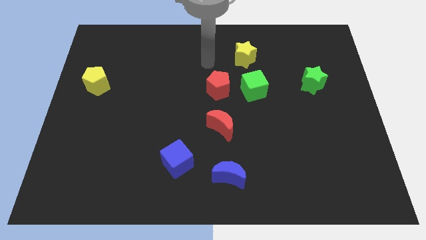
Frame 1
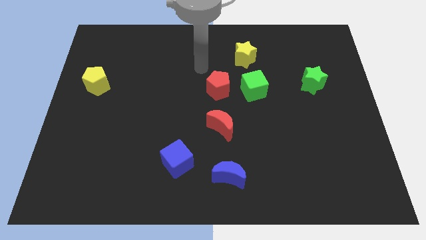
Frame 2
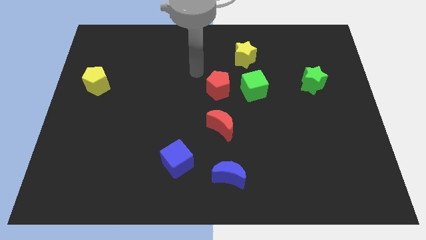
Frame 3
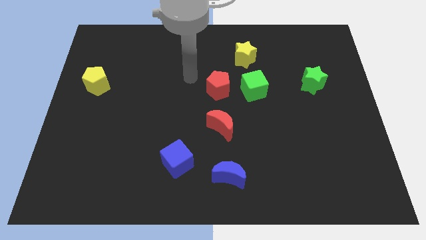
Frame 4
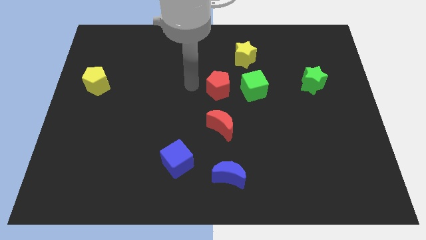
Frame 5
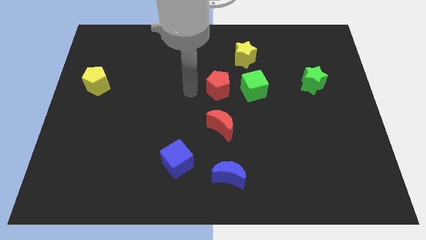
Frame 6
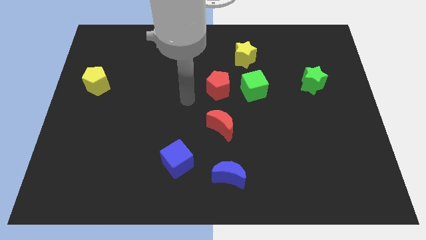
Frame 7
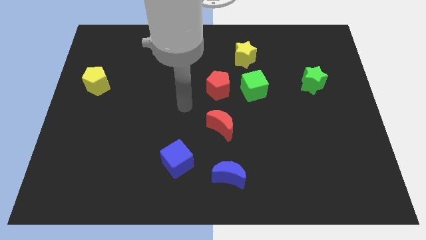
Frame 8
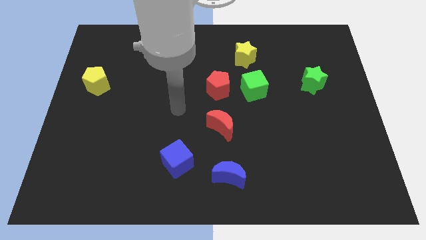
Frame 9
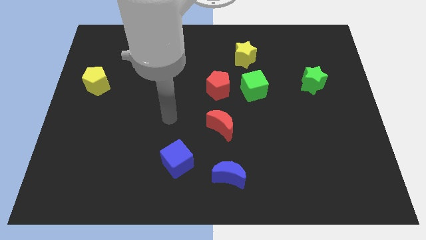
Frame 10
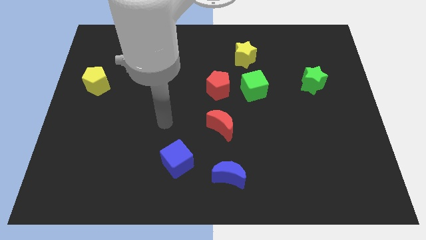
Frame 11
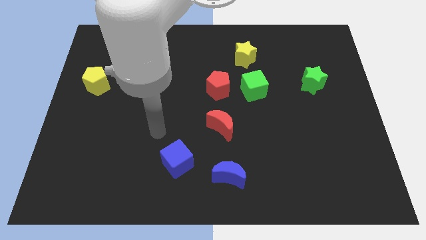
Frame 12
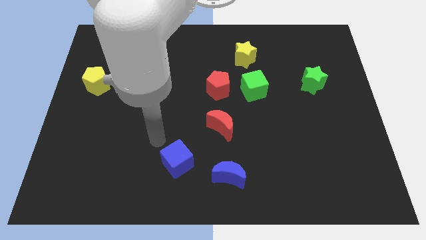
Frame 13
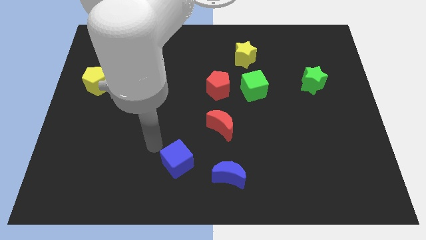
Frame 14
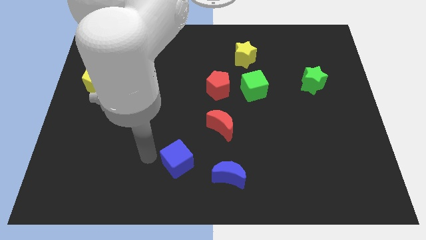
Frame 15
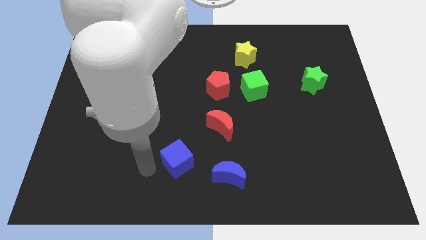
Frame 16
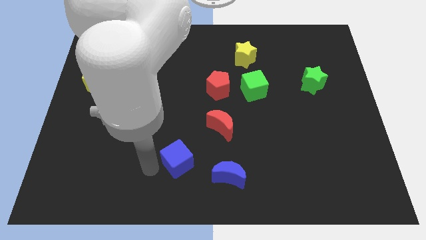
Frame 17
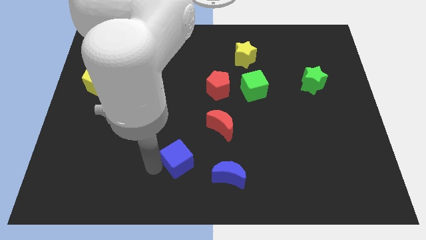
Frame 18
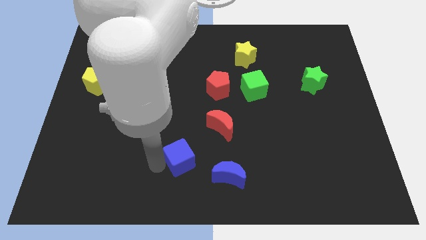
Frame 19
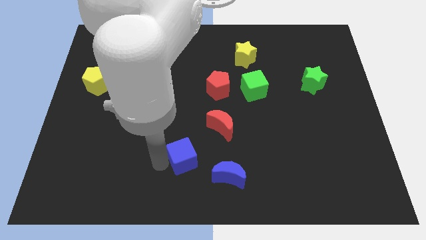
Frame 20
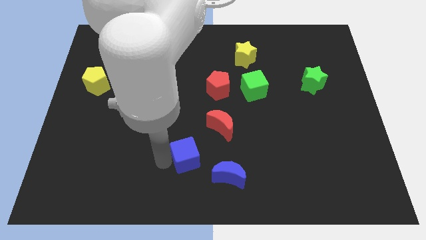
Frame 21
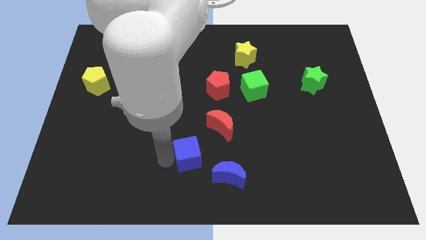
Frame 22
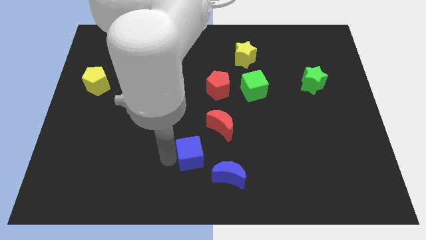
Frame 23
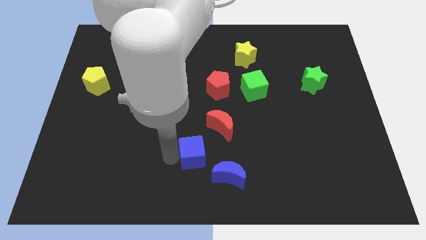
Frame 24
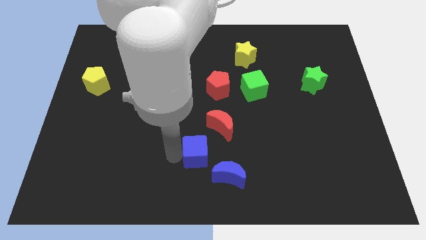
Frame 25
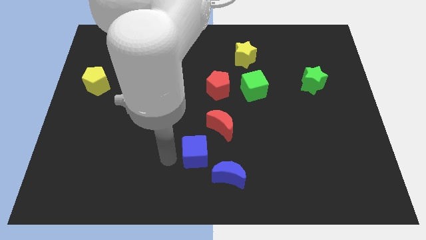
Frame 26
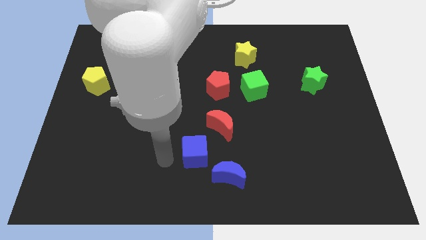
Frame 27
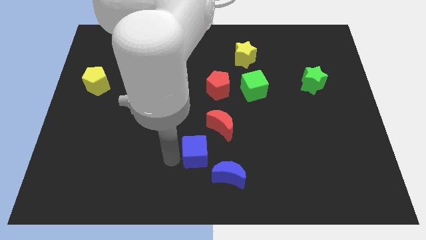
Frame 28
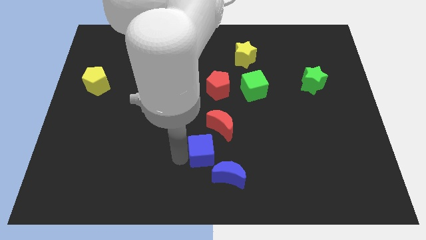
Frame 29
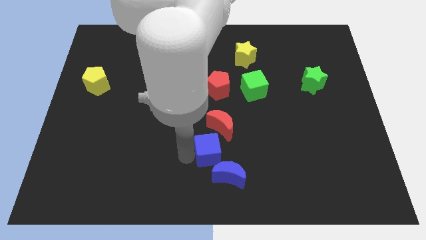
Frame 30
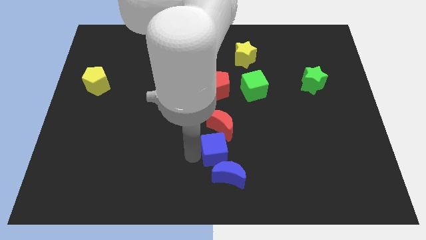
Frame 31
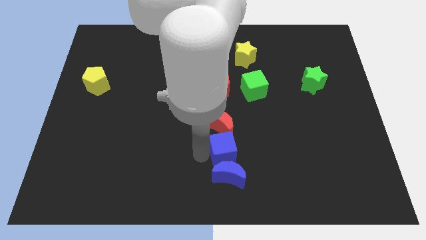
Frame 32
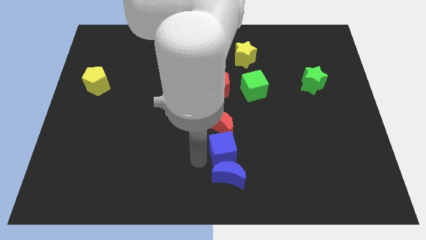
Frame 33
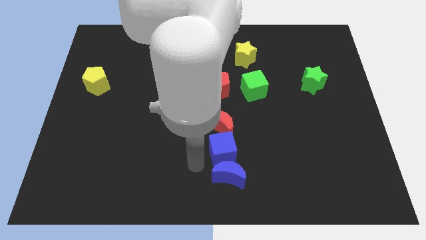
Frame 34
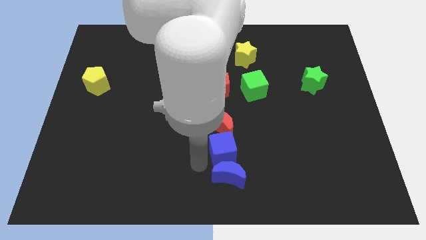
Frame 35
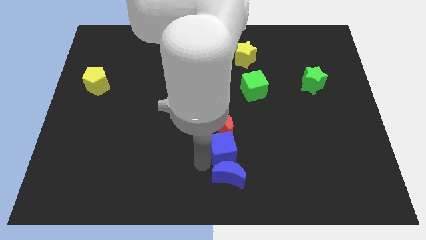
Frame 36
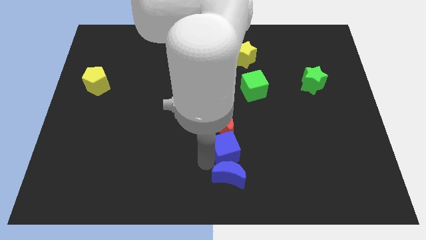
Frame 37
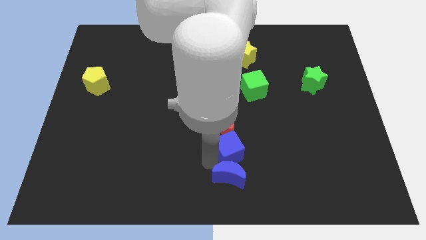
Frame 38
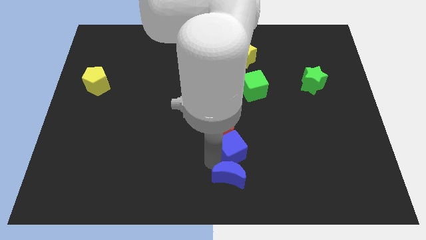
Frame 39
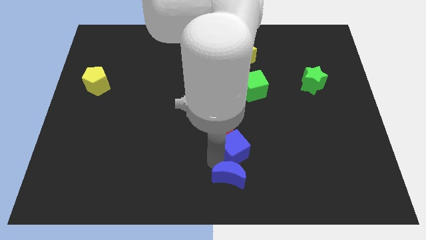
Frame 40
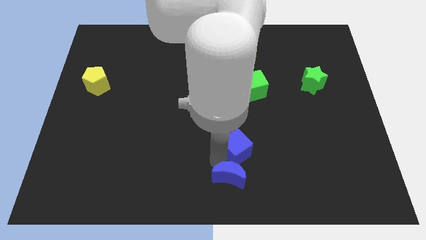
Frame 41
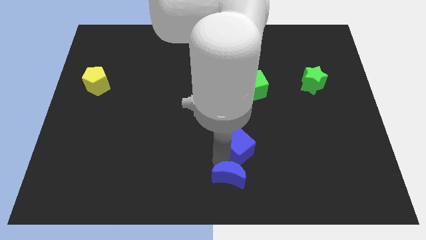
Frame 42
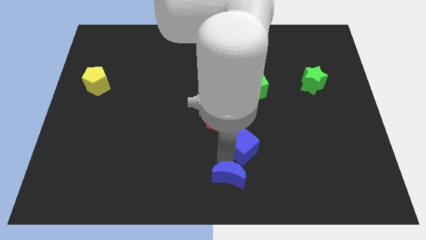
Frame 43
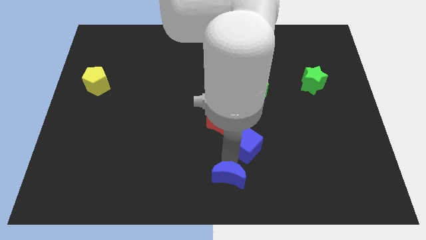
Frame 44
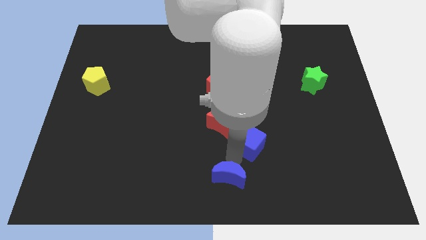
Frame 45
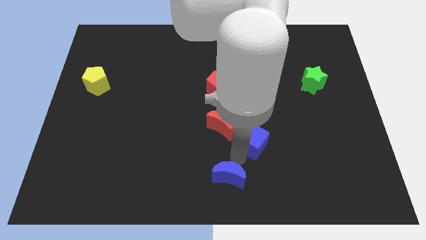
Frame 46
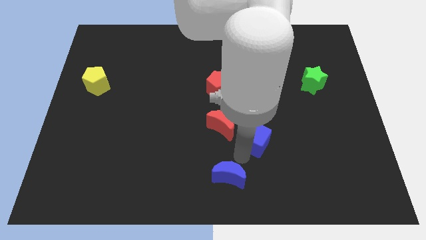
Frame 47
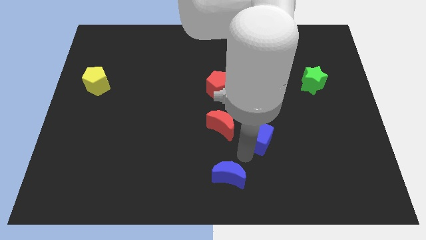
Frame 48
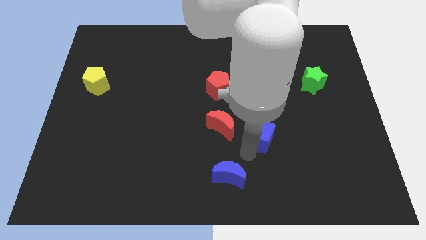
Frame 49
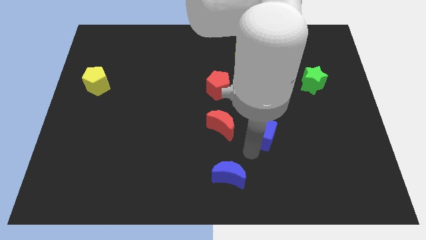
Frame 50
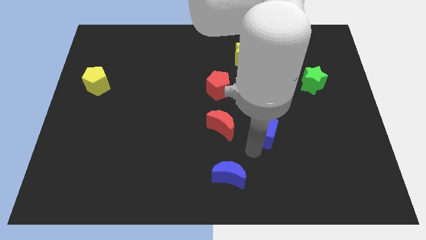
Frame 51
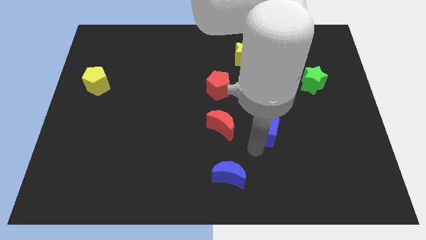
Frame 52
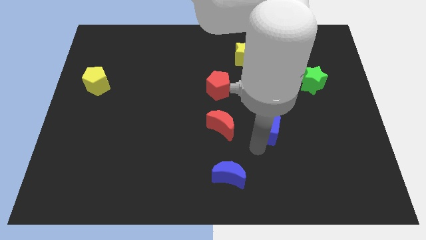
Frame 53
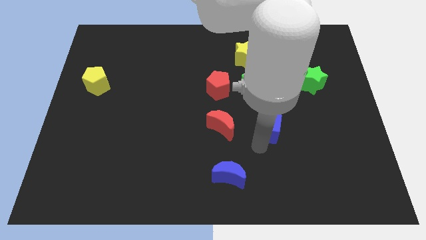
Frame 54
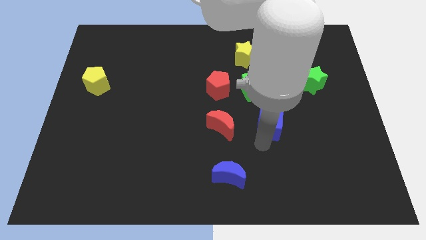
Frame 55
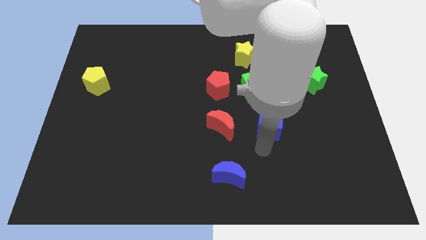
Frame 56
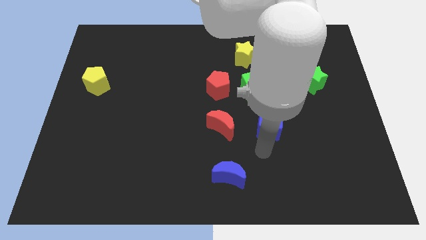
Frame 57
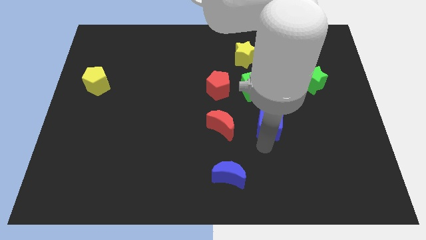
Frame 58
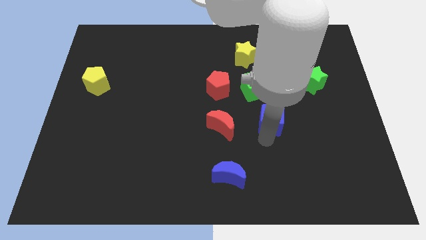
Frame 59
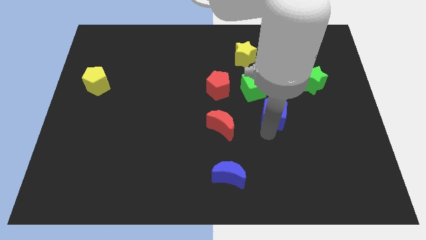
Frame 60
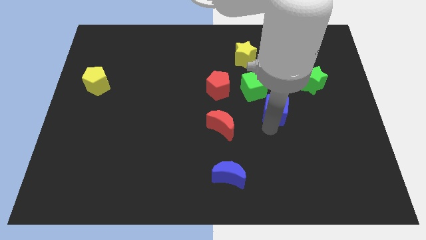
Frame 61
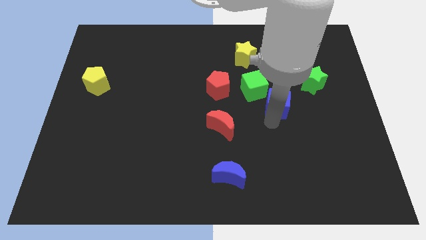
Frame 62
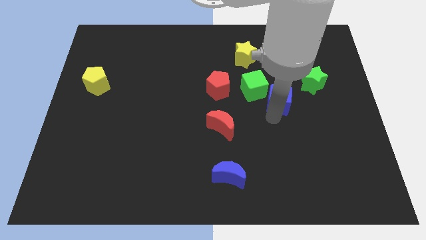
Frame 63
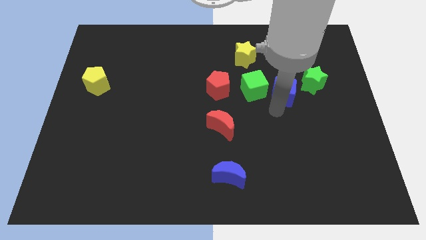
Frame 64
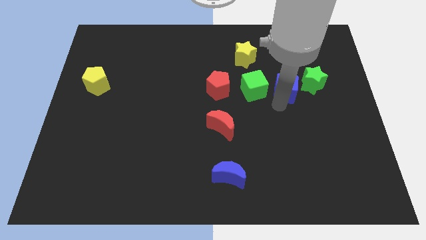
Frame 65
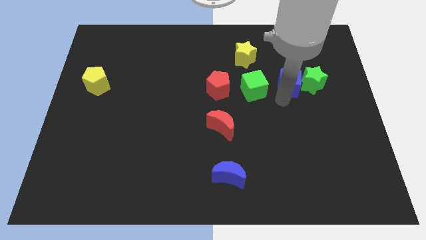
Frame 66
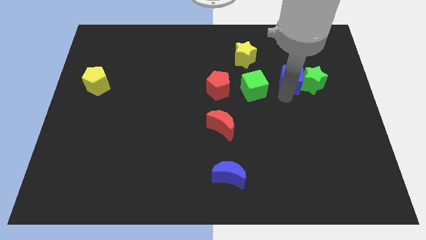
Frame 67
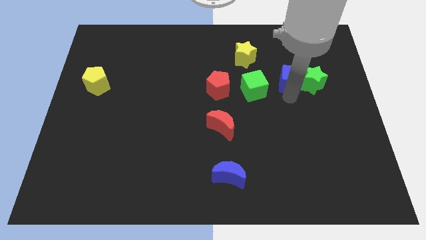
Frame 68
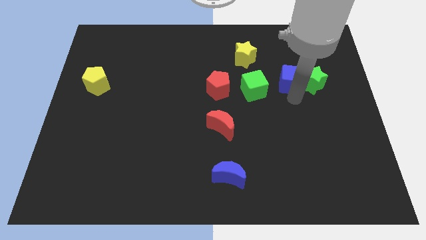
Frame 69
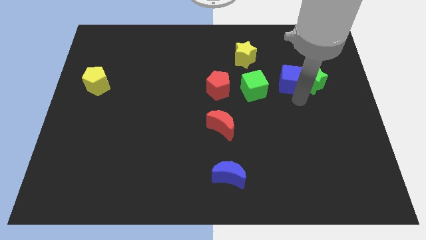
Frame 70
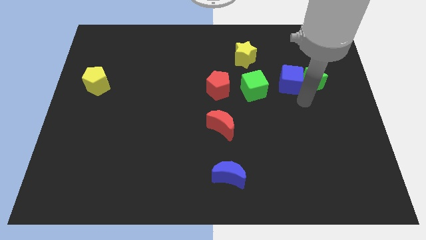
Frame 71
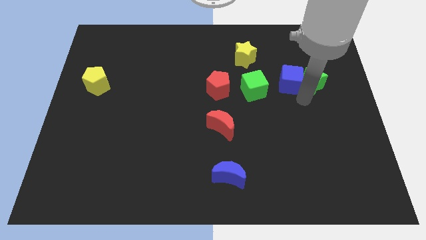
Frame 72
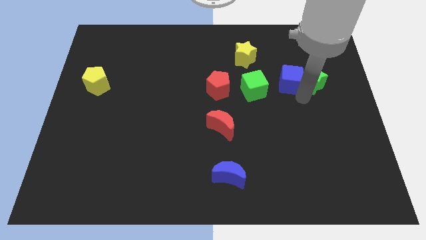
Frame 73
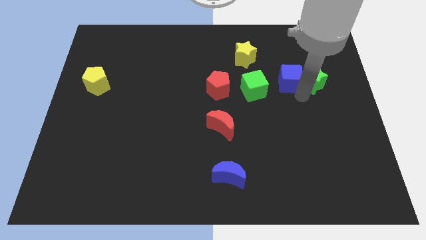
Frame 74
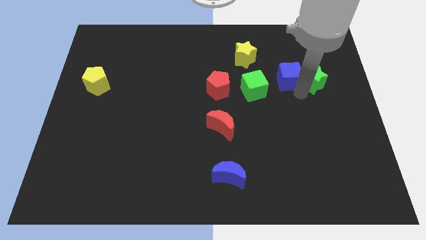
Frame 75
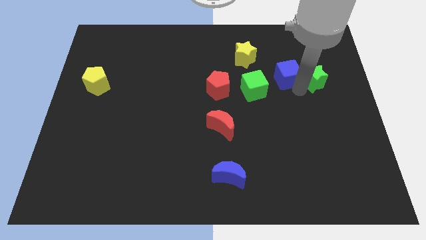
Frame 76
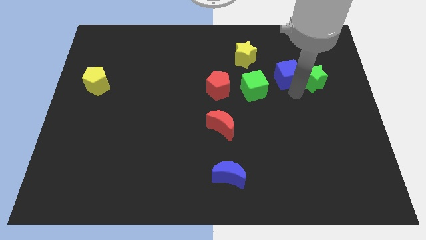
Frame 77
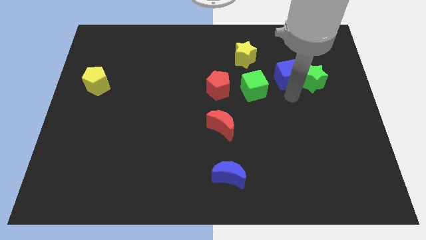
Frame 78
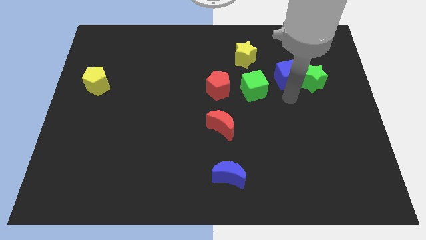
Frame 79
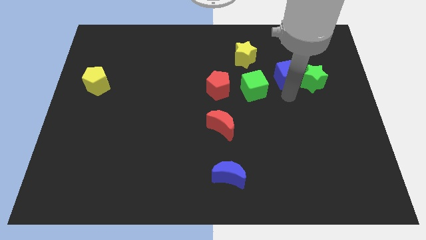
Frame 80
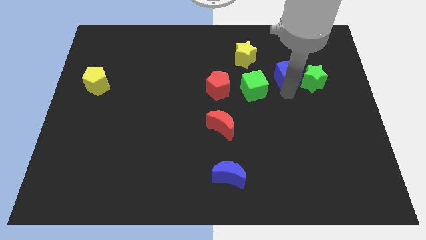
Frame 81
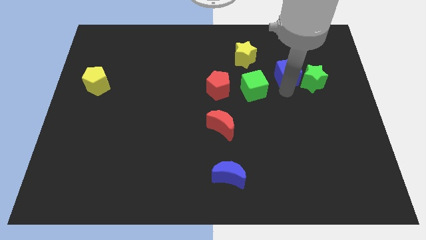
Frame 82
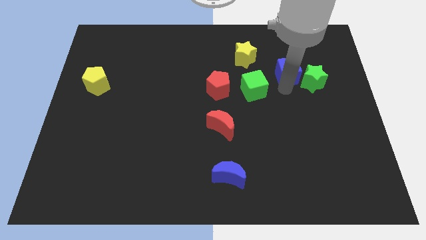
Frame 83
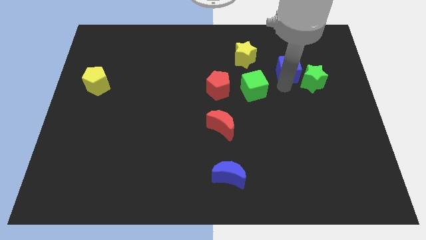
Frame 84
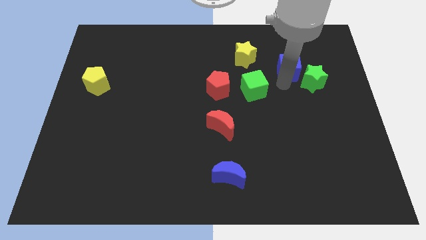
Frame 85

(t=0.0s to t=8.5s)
put the blue cube to the right of the yellow star
